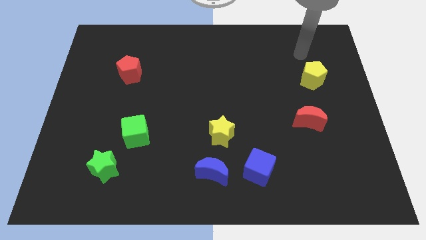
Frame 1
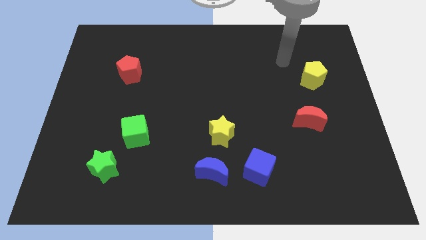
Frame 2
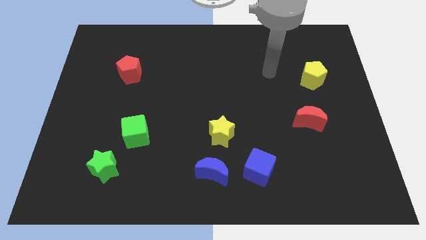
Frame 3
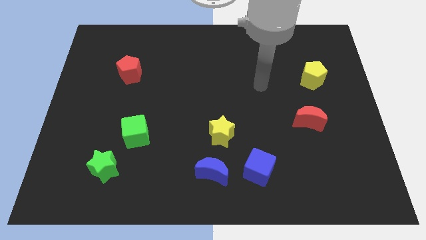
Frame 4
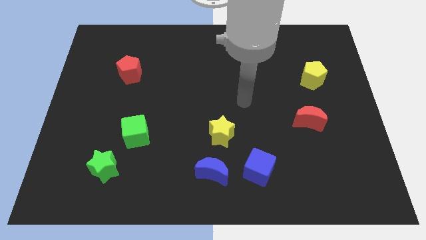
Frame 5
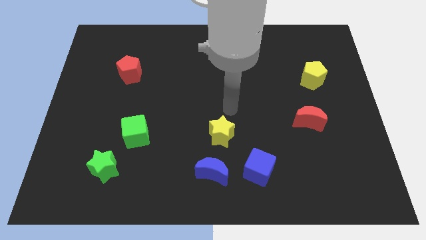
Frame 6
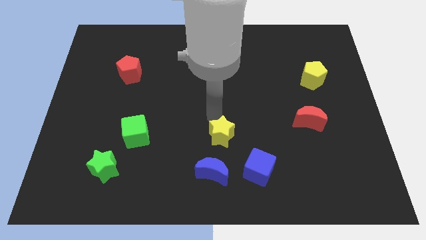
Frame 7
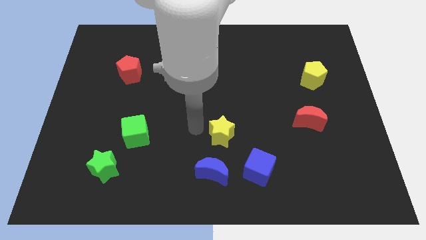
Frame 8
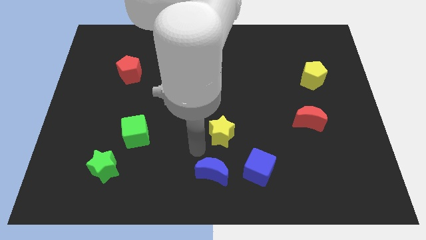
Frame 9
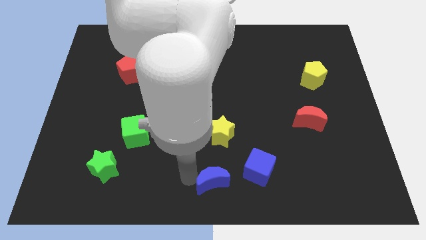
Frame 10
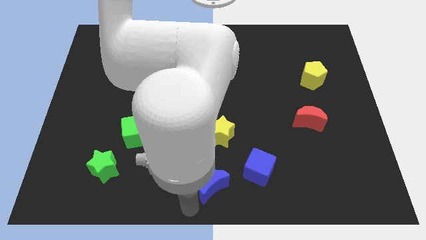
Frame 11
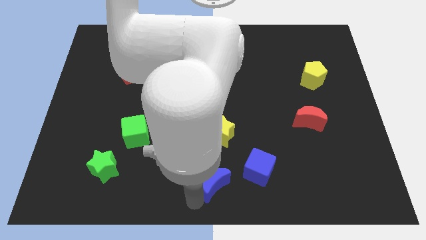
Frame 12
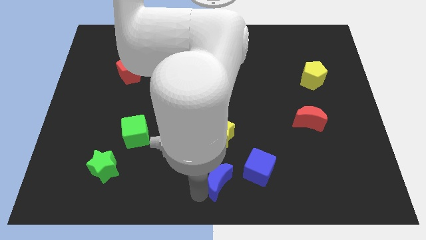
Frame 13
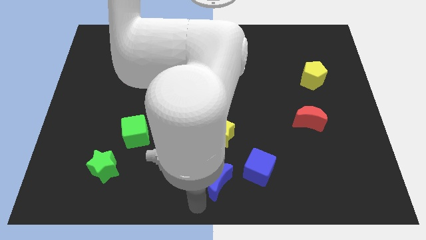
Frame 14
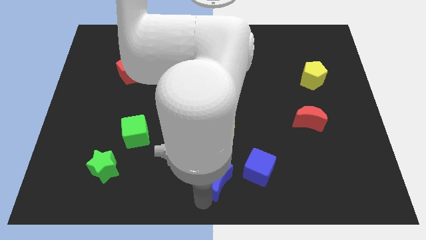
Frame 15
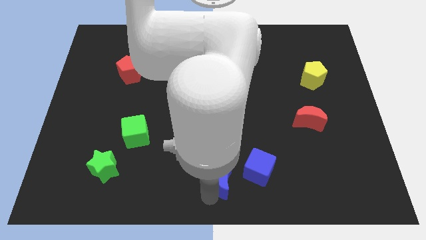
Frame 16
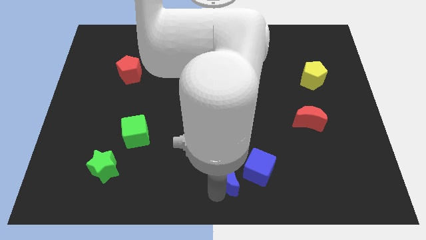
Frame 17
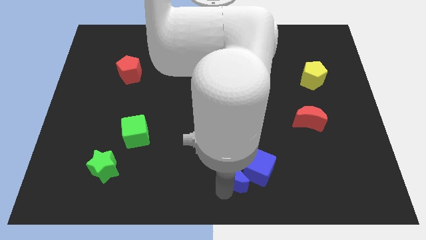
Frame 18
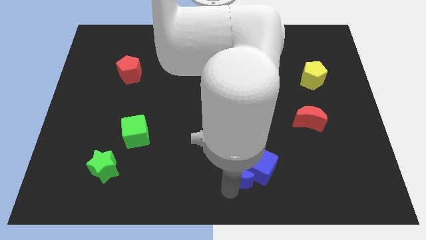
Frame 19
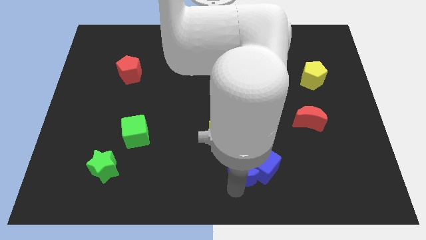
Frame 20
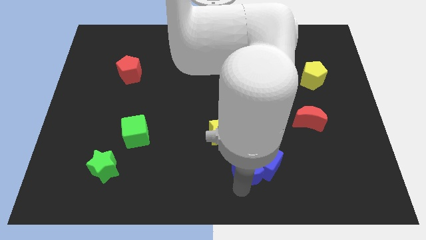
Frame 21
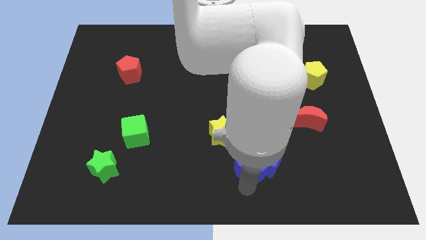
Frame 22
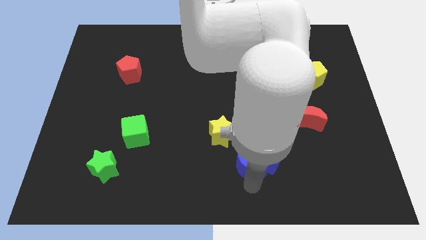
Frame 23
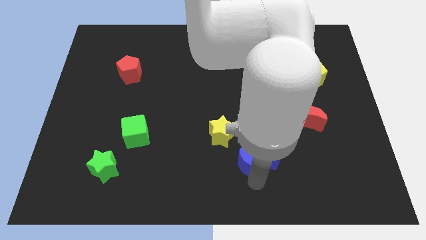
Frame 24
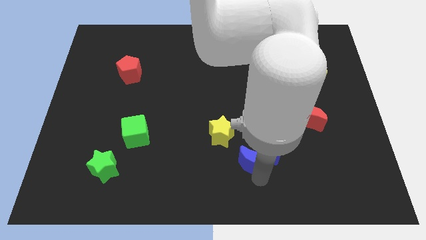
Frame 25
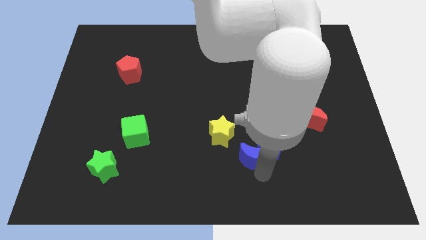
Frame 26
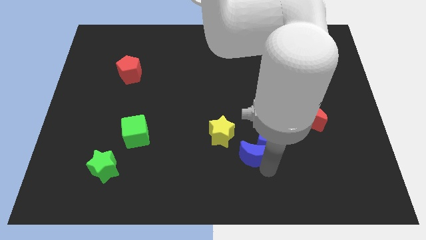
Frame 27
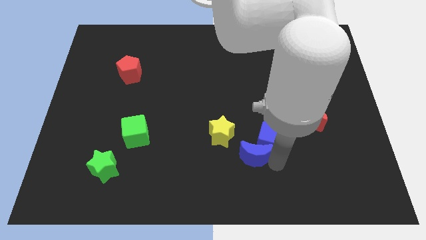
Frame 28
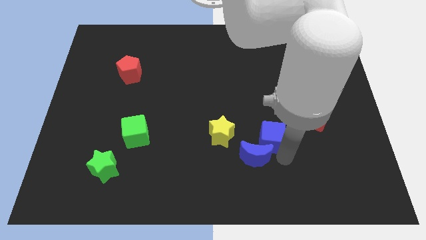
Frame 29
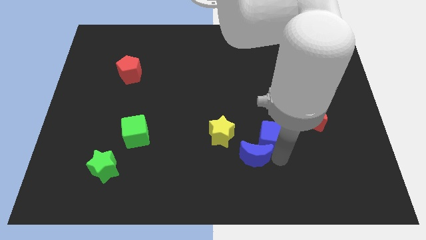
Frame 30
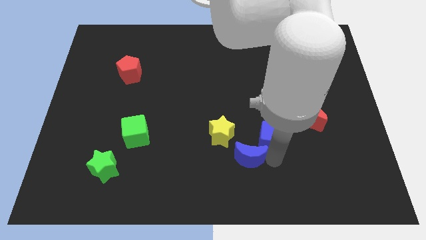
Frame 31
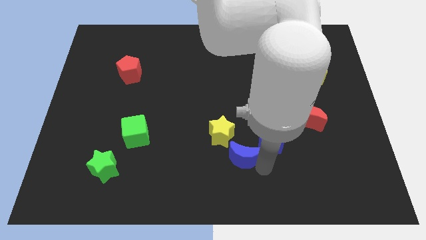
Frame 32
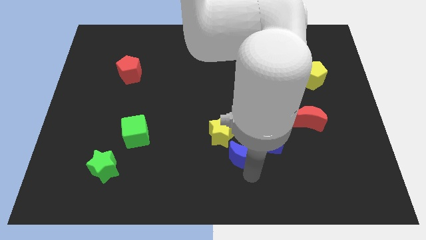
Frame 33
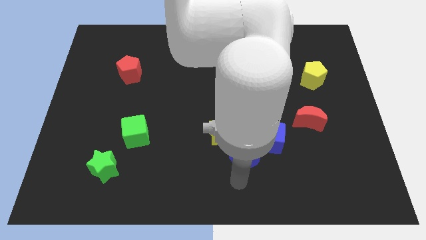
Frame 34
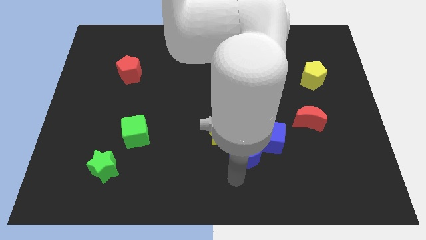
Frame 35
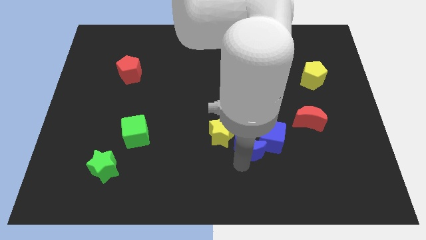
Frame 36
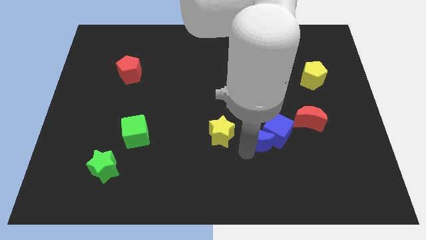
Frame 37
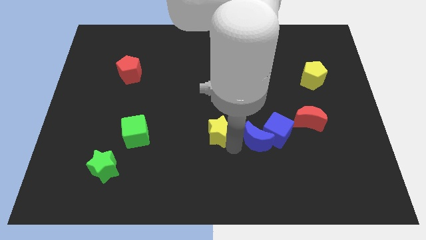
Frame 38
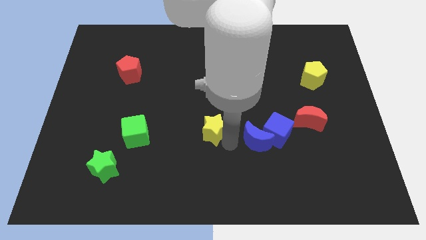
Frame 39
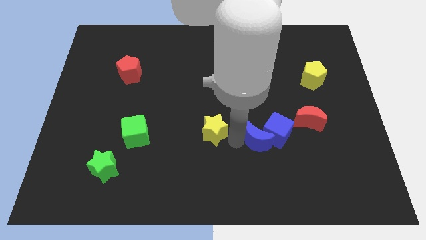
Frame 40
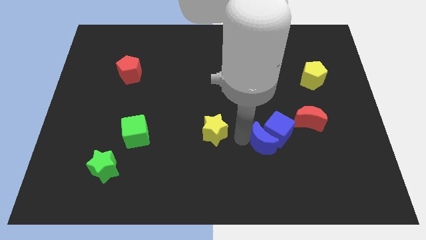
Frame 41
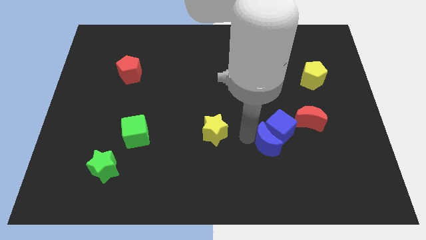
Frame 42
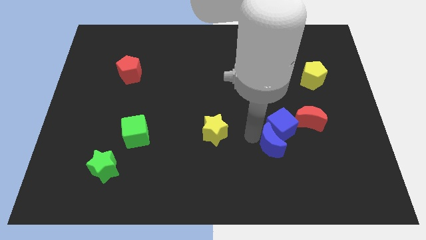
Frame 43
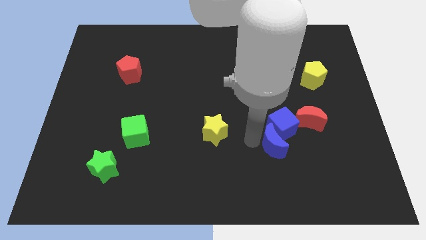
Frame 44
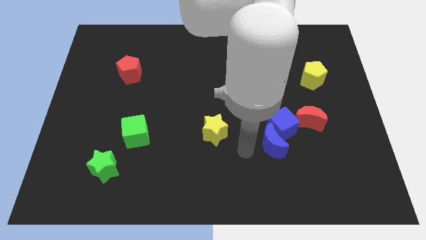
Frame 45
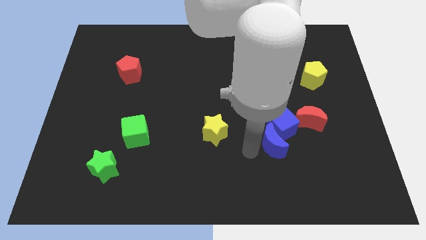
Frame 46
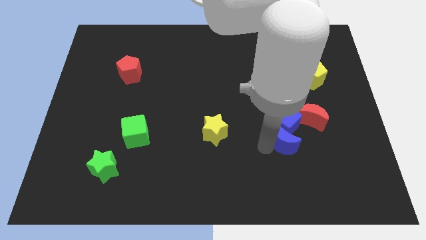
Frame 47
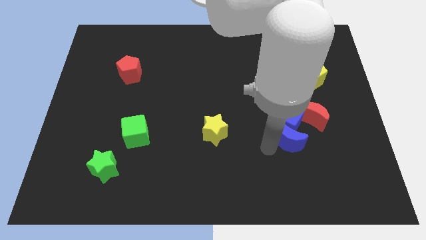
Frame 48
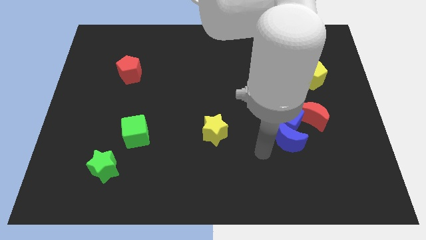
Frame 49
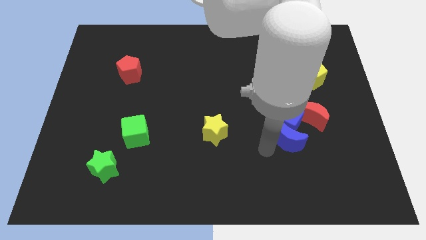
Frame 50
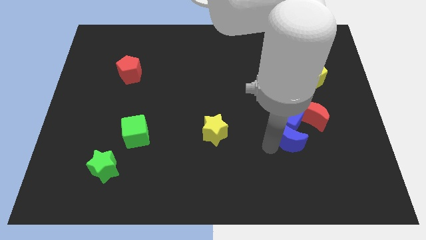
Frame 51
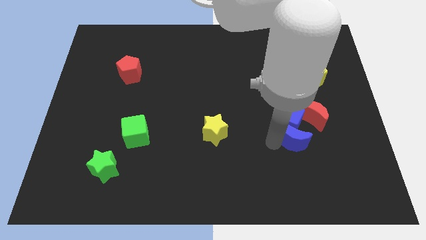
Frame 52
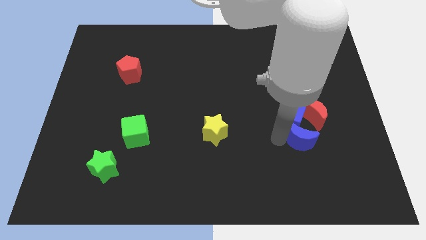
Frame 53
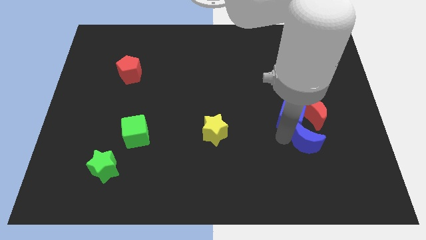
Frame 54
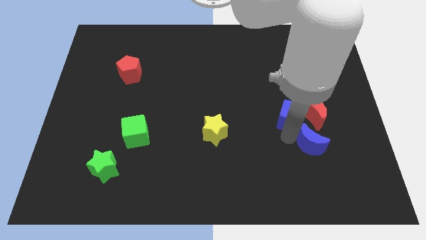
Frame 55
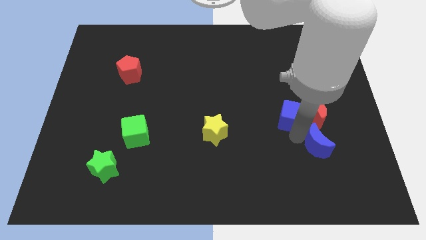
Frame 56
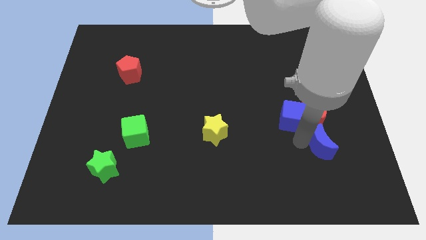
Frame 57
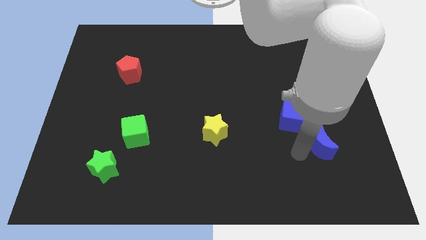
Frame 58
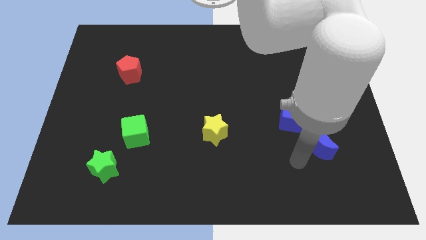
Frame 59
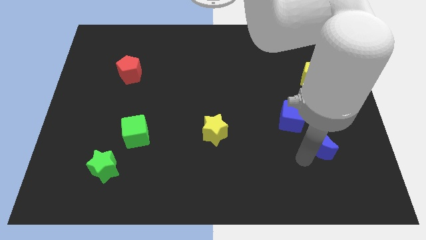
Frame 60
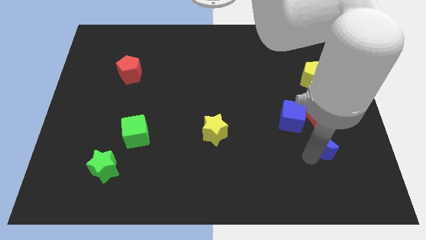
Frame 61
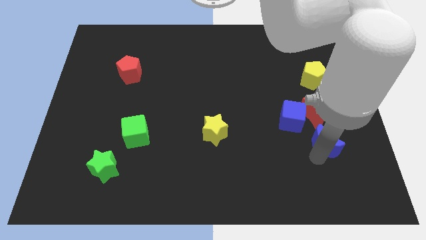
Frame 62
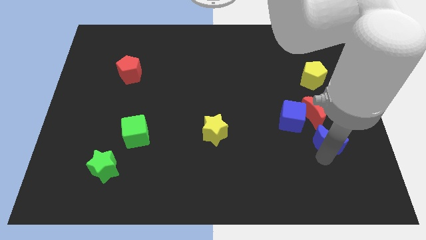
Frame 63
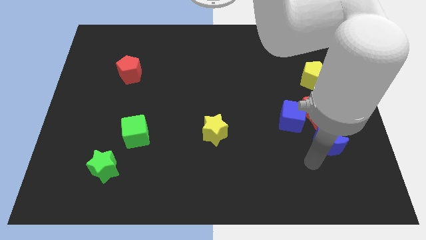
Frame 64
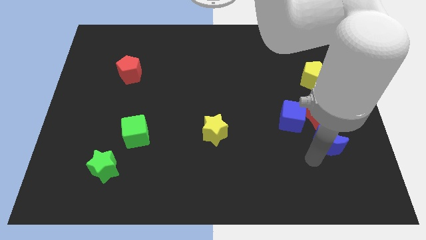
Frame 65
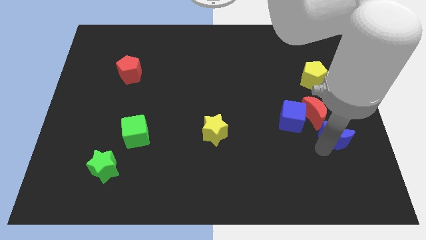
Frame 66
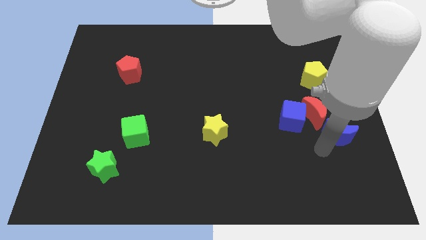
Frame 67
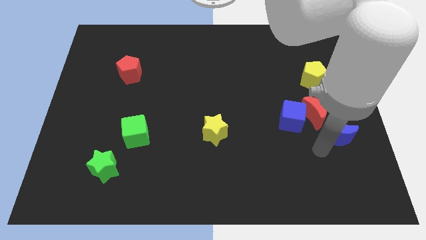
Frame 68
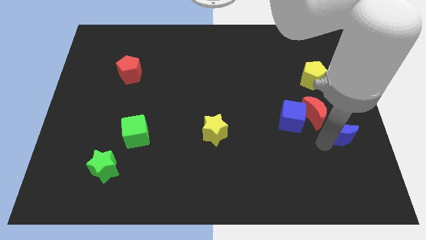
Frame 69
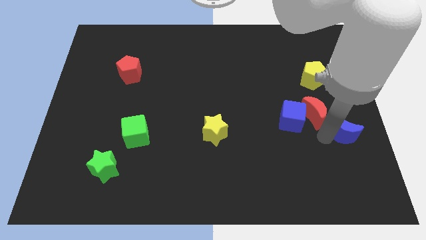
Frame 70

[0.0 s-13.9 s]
put the blue moon to the center right
